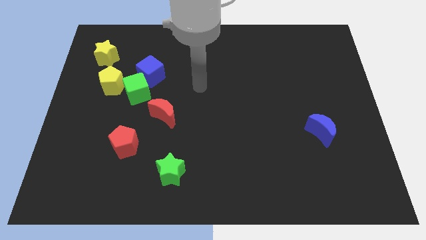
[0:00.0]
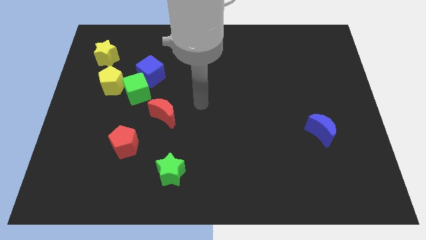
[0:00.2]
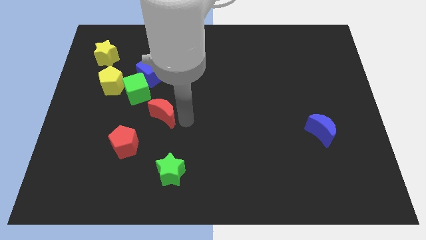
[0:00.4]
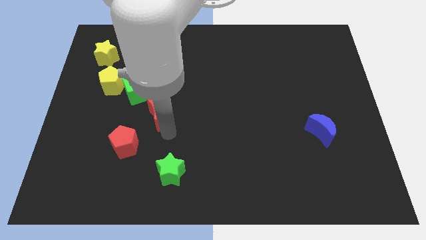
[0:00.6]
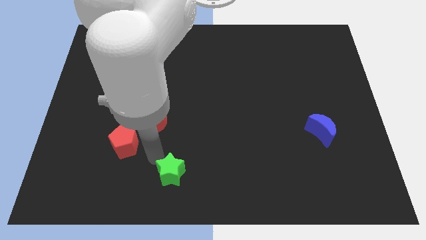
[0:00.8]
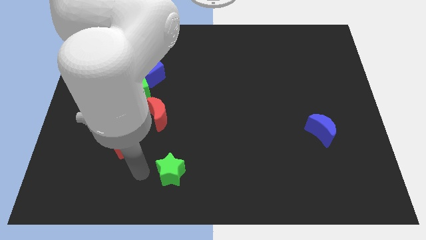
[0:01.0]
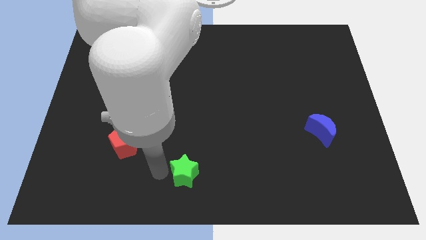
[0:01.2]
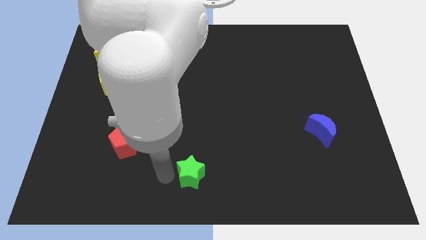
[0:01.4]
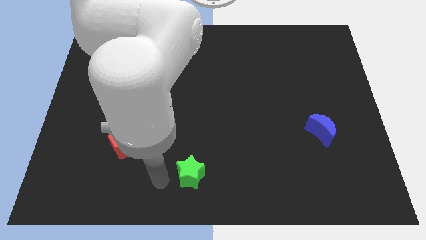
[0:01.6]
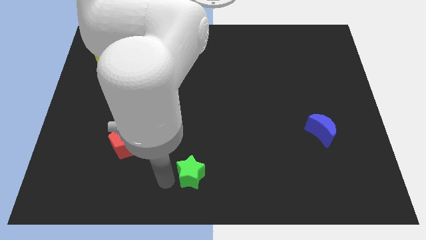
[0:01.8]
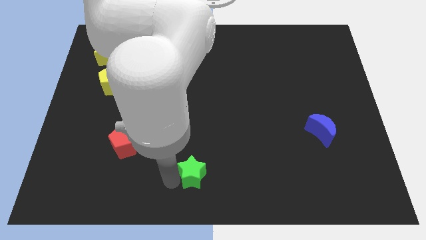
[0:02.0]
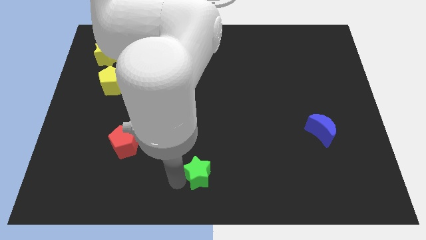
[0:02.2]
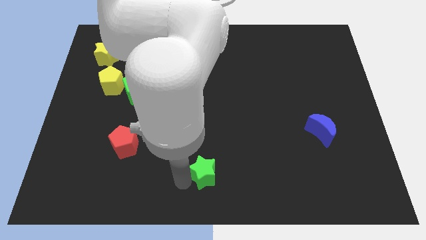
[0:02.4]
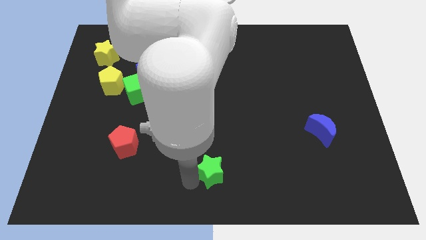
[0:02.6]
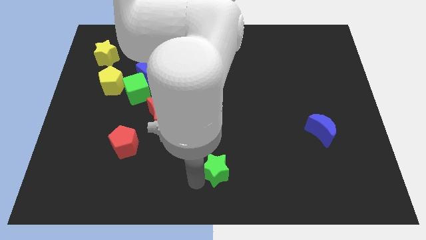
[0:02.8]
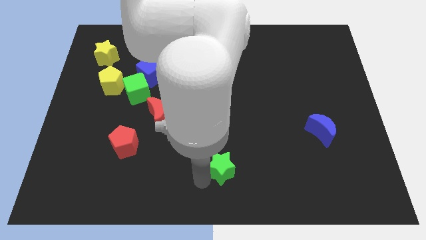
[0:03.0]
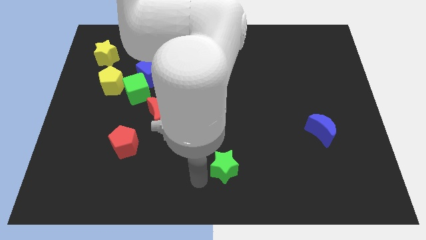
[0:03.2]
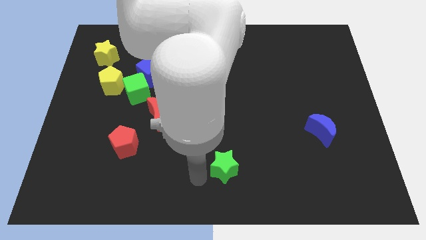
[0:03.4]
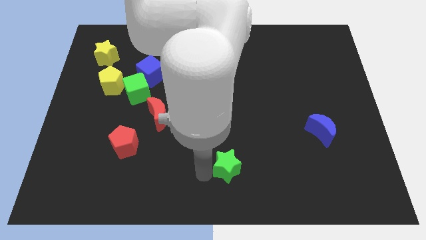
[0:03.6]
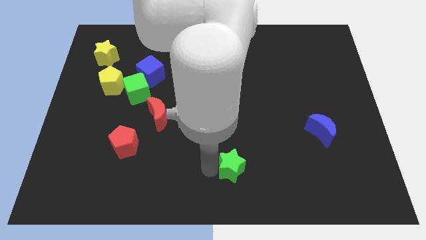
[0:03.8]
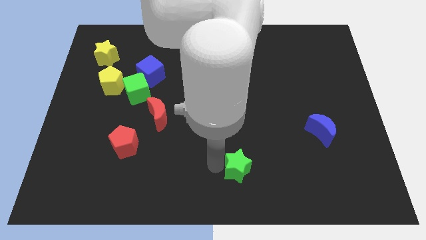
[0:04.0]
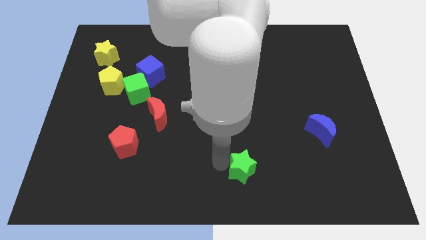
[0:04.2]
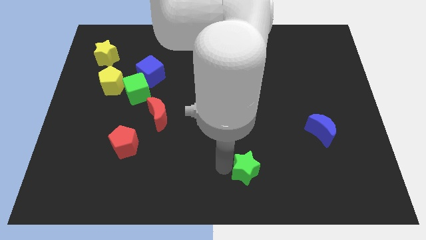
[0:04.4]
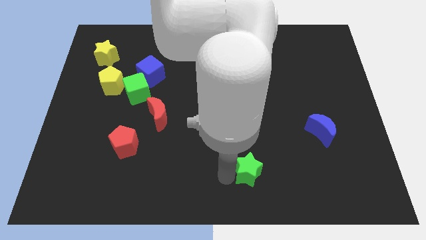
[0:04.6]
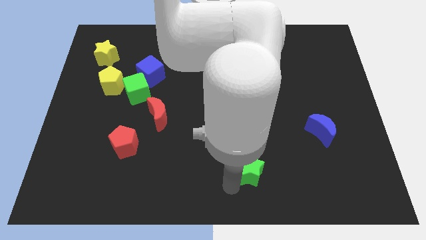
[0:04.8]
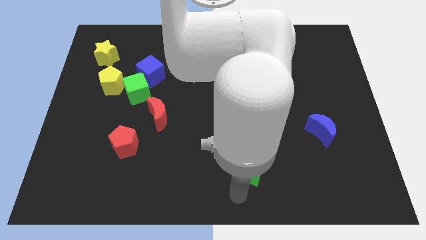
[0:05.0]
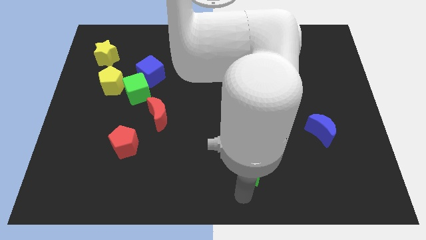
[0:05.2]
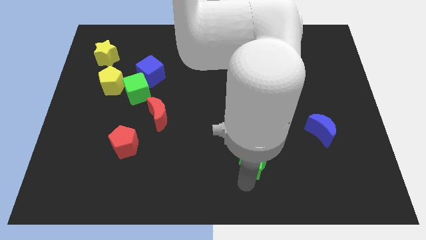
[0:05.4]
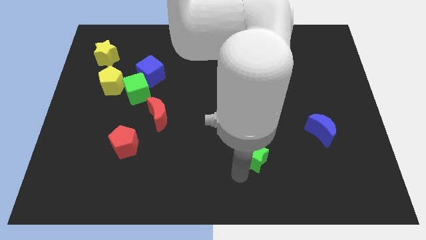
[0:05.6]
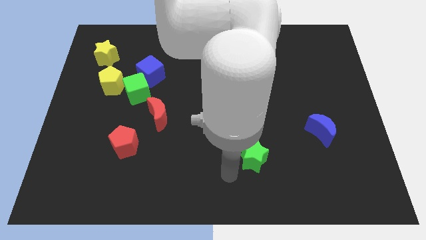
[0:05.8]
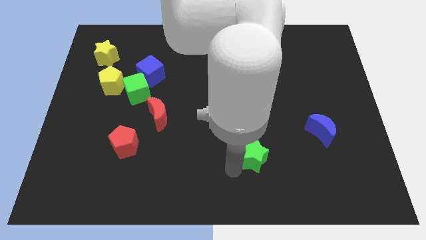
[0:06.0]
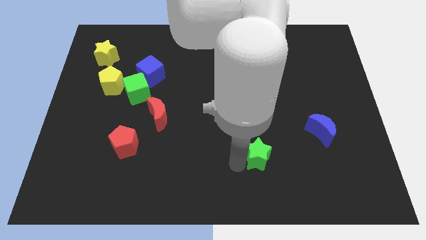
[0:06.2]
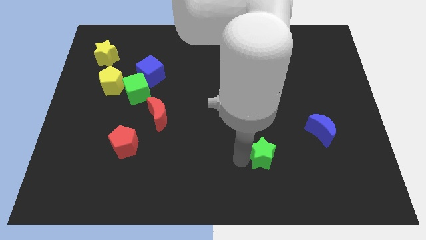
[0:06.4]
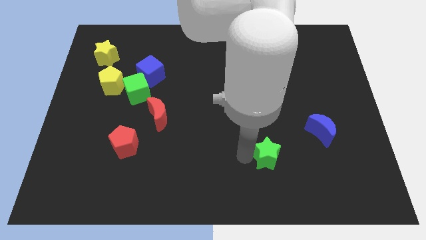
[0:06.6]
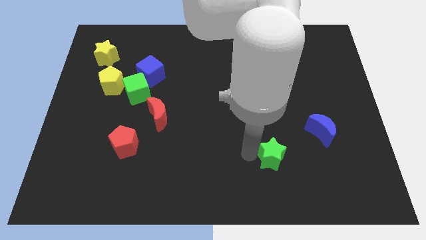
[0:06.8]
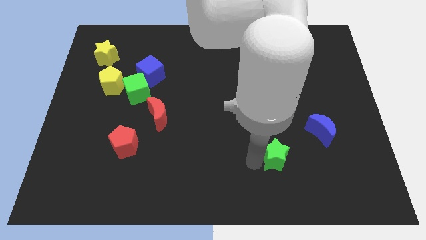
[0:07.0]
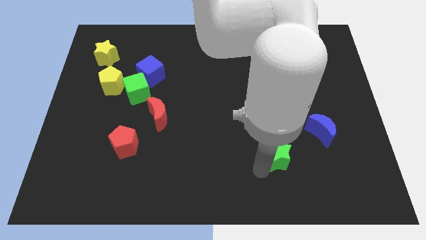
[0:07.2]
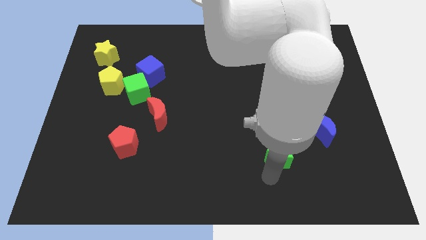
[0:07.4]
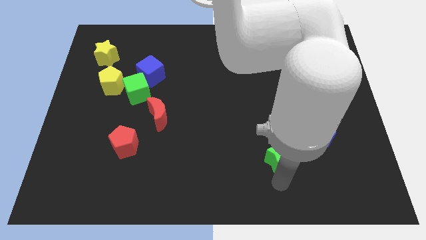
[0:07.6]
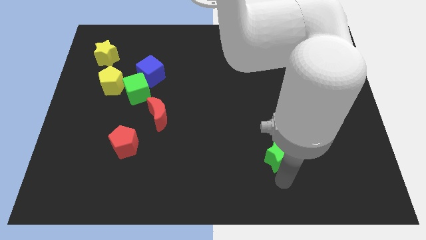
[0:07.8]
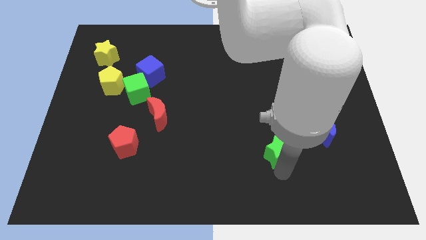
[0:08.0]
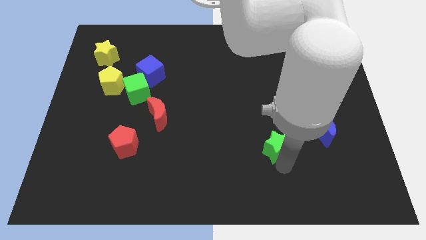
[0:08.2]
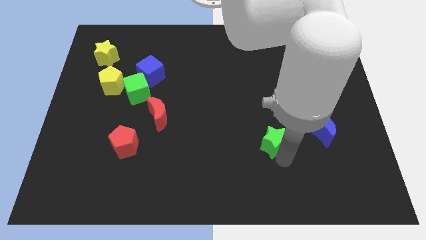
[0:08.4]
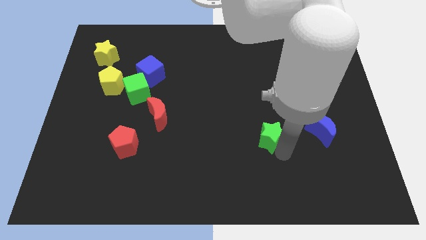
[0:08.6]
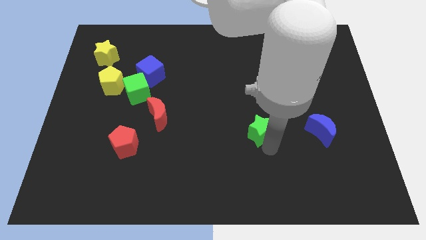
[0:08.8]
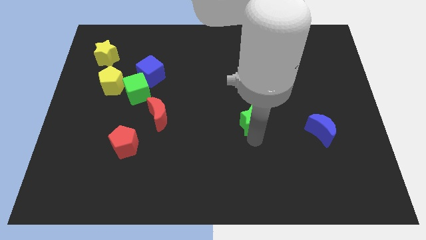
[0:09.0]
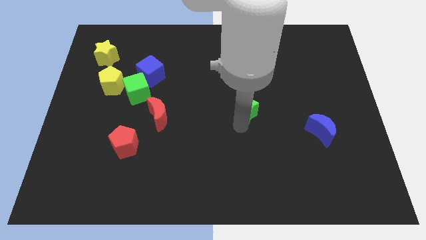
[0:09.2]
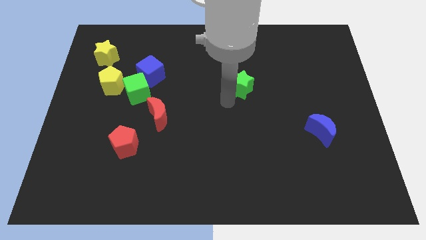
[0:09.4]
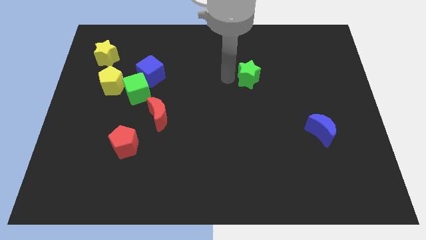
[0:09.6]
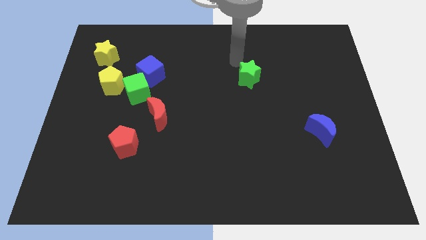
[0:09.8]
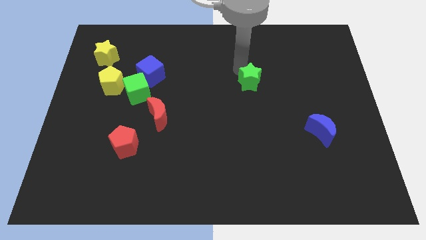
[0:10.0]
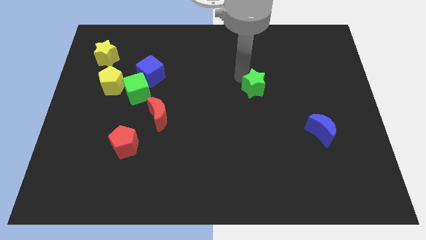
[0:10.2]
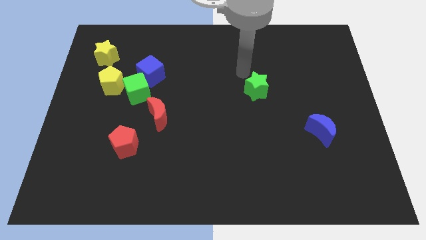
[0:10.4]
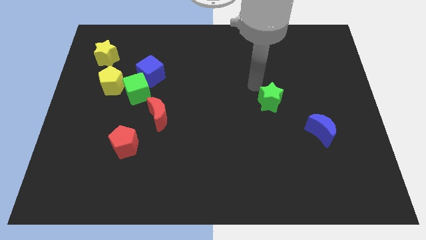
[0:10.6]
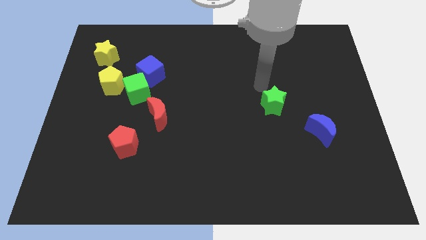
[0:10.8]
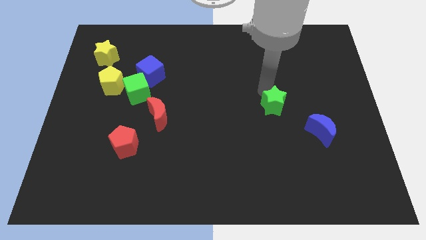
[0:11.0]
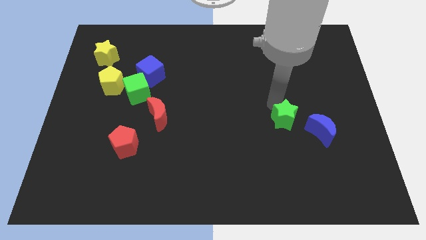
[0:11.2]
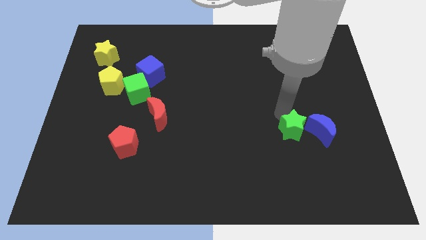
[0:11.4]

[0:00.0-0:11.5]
slide the green star close to the blue moon
